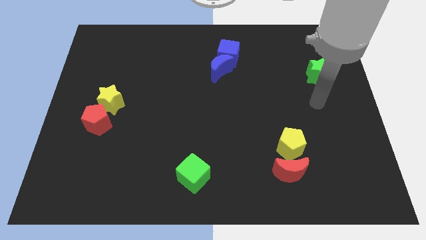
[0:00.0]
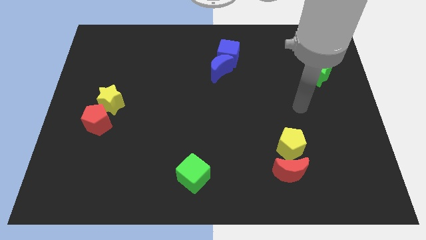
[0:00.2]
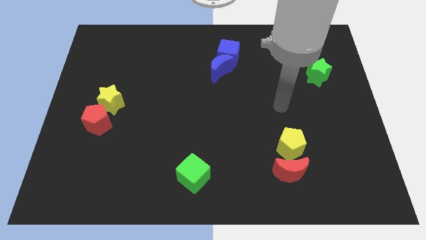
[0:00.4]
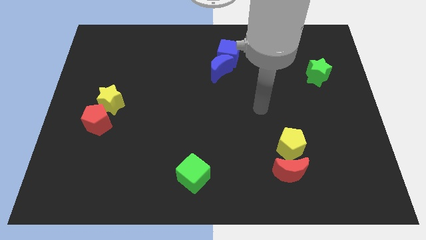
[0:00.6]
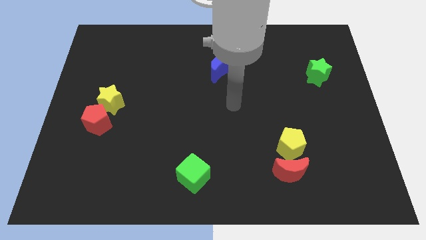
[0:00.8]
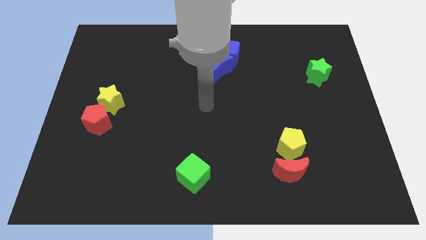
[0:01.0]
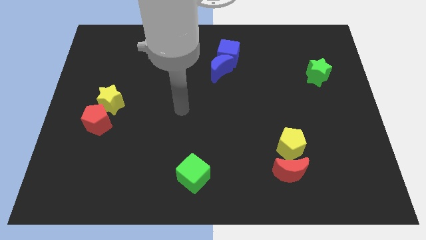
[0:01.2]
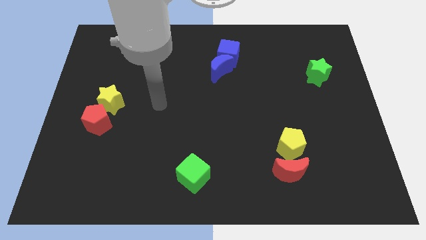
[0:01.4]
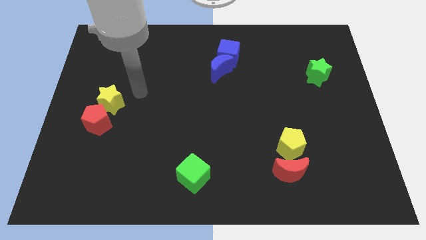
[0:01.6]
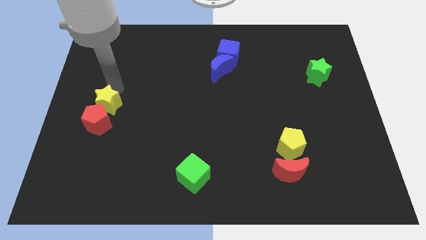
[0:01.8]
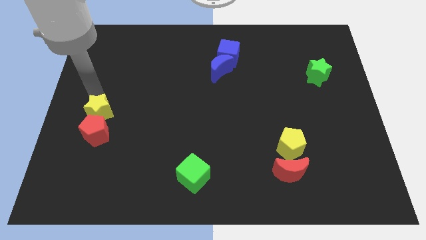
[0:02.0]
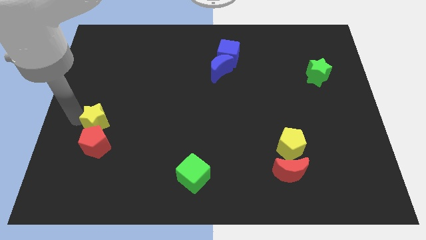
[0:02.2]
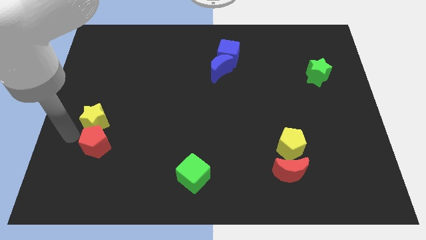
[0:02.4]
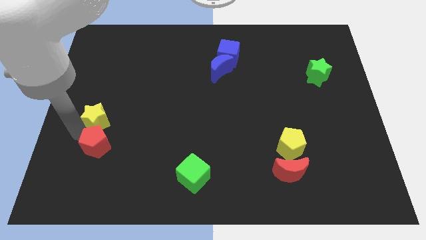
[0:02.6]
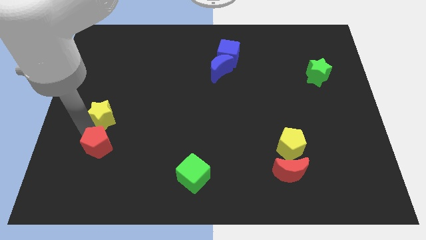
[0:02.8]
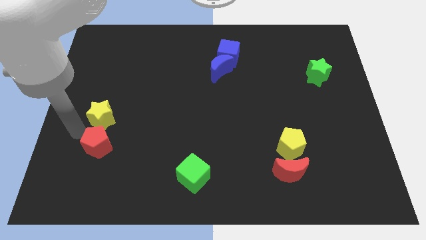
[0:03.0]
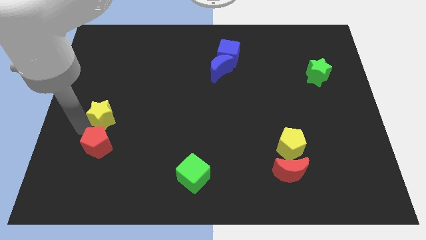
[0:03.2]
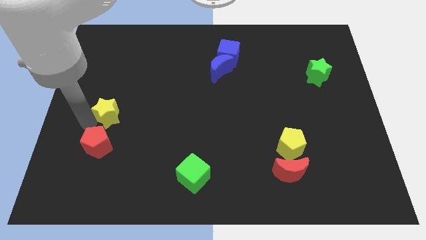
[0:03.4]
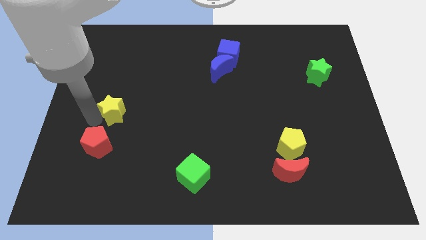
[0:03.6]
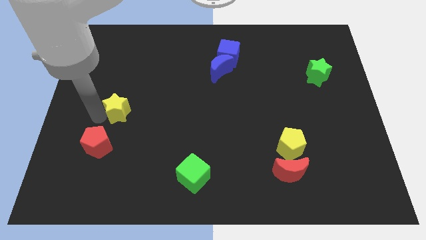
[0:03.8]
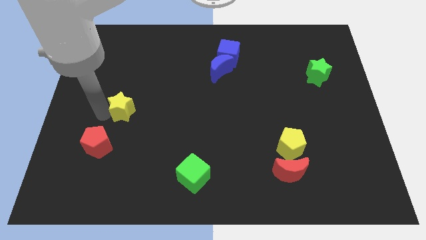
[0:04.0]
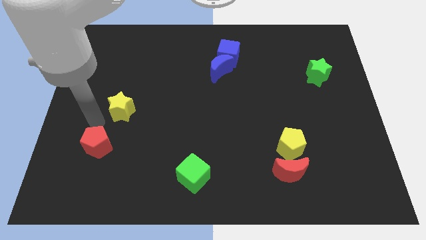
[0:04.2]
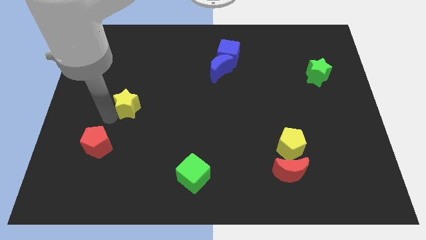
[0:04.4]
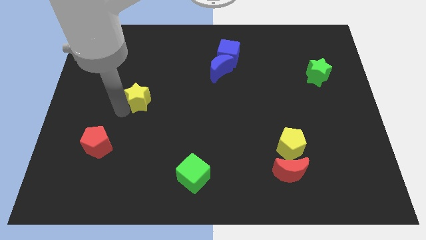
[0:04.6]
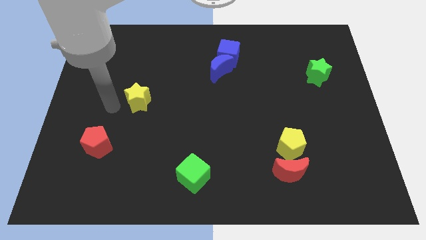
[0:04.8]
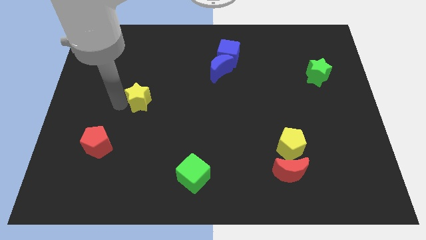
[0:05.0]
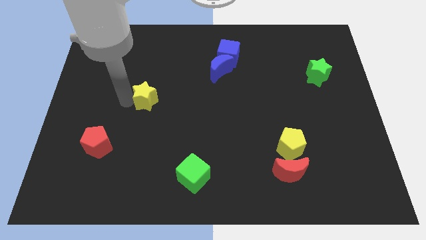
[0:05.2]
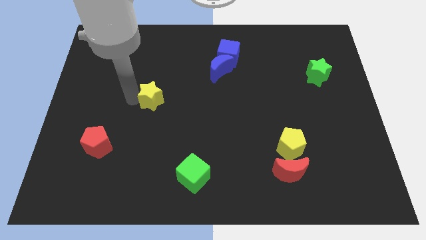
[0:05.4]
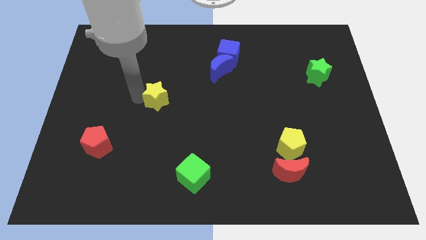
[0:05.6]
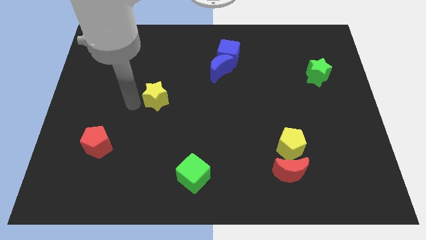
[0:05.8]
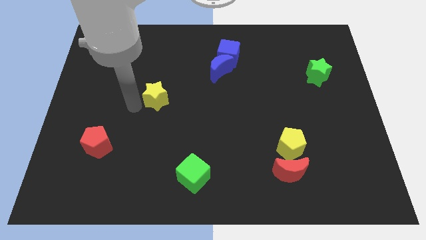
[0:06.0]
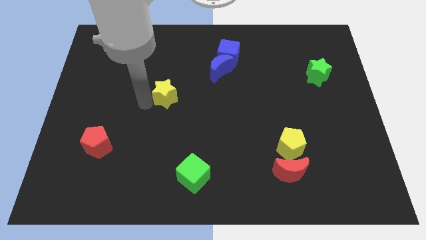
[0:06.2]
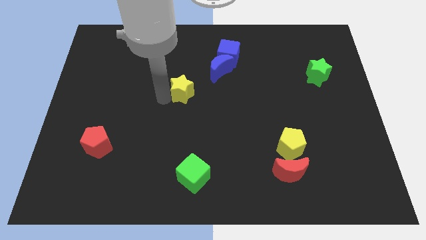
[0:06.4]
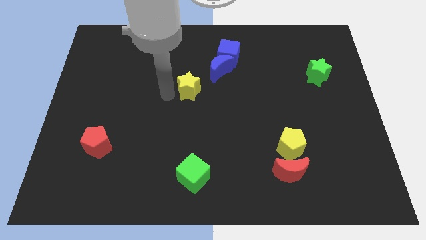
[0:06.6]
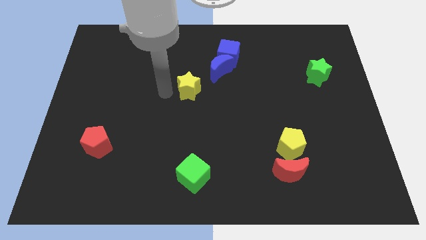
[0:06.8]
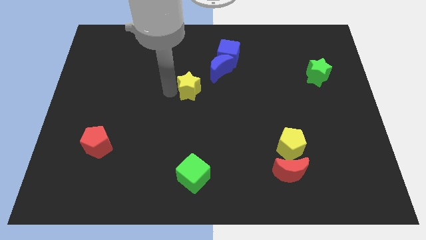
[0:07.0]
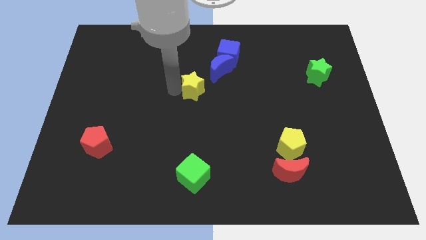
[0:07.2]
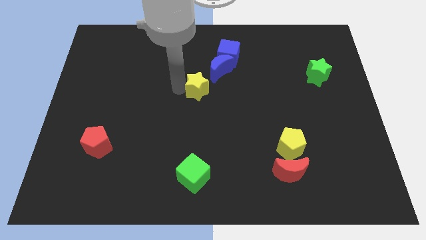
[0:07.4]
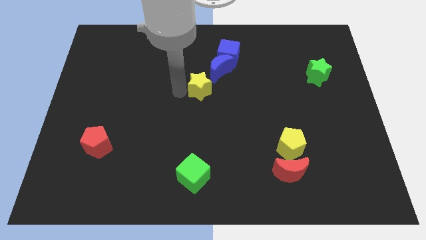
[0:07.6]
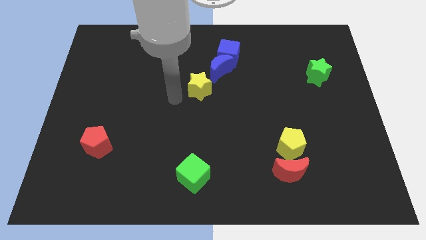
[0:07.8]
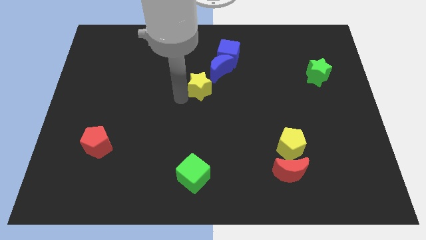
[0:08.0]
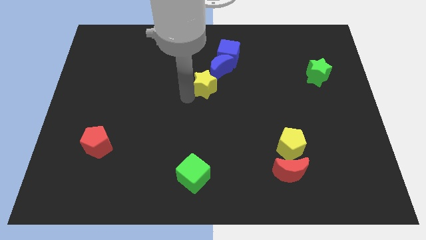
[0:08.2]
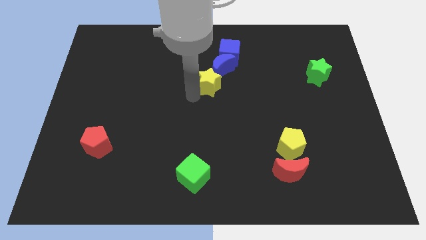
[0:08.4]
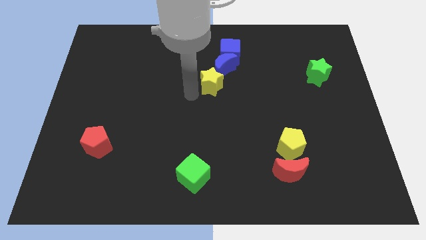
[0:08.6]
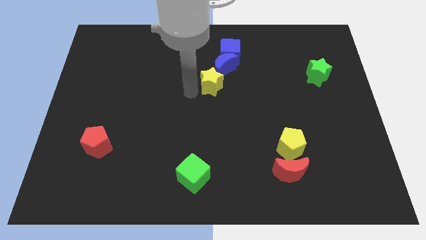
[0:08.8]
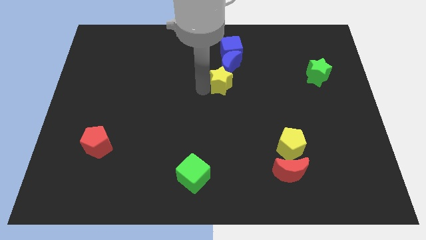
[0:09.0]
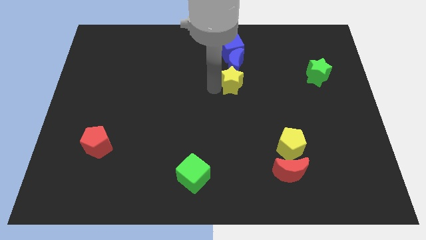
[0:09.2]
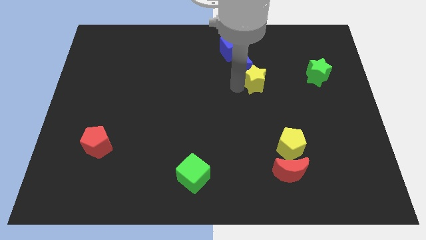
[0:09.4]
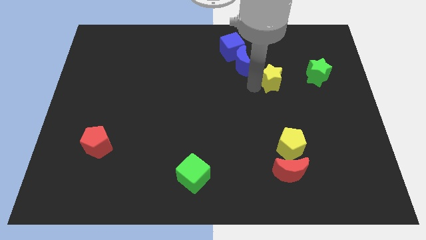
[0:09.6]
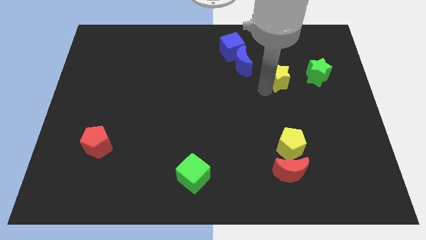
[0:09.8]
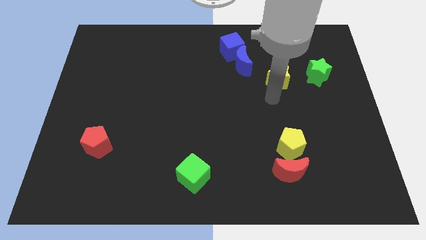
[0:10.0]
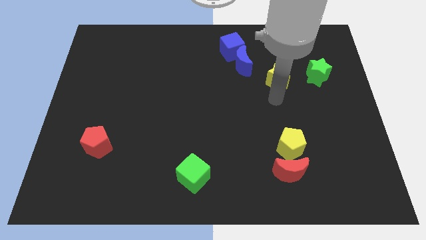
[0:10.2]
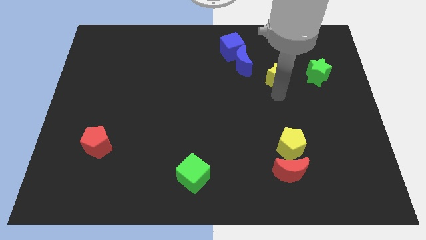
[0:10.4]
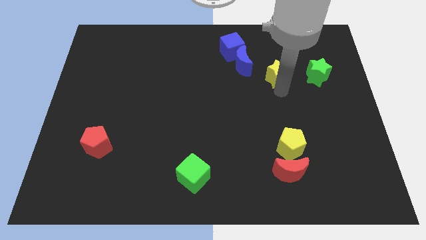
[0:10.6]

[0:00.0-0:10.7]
slide the yellow star right of the blue moon

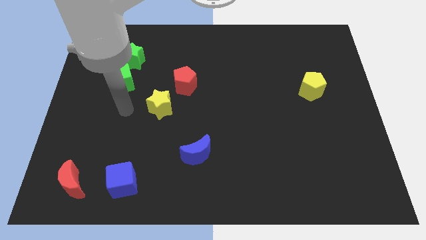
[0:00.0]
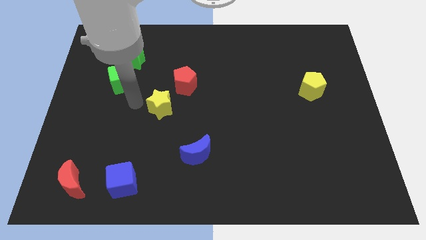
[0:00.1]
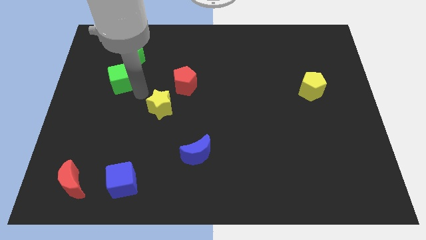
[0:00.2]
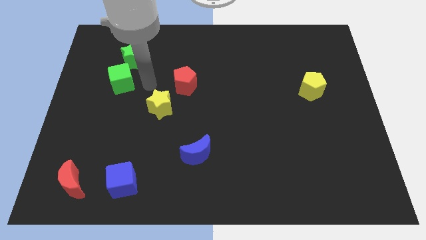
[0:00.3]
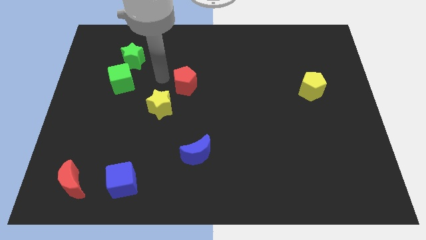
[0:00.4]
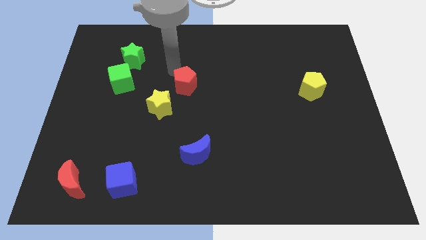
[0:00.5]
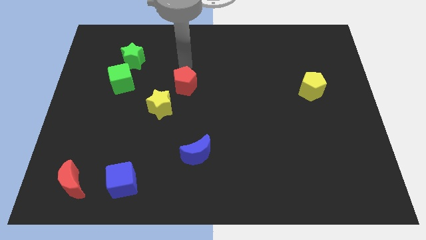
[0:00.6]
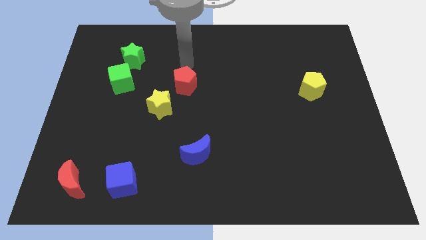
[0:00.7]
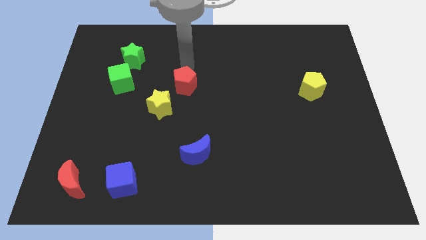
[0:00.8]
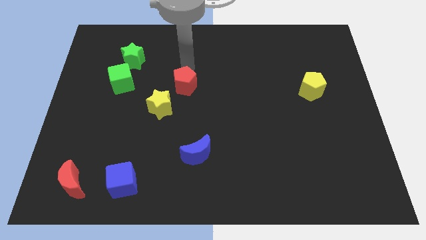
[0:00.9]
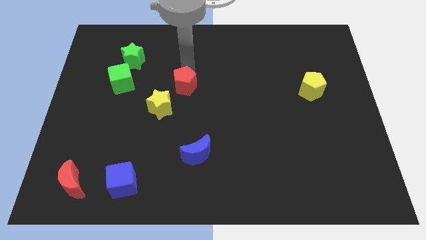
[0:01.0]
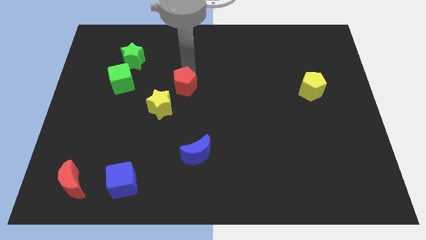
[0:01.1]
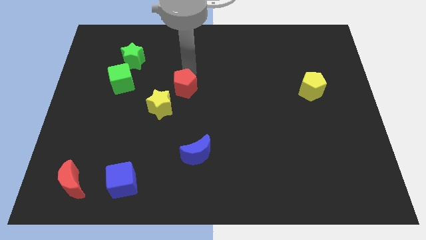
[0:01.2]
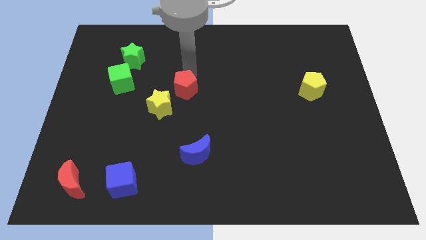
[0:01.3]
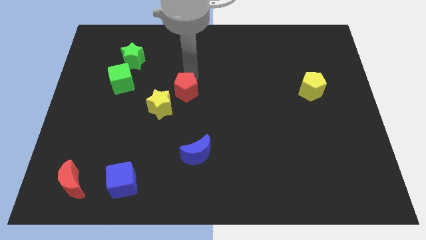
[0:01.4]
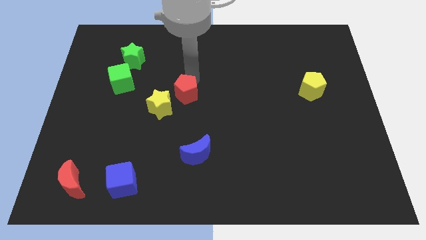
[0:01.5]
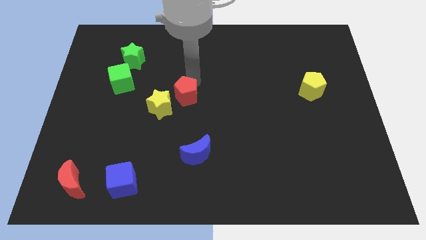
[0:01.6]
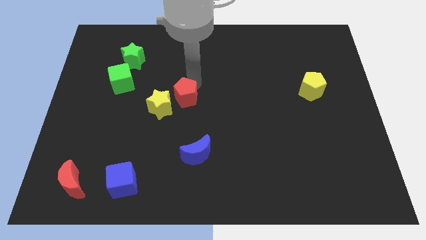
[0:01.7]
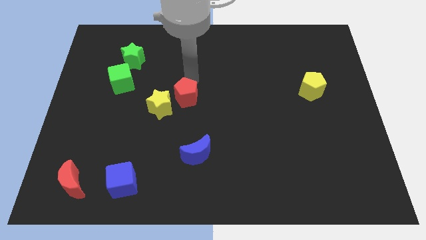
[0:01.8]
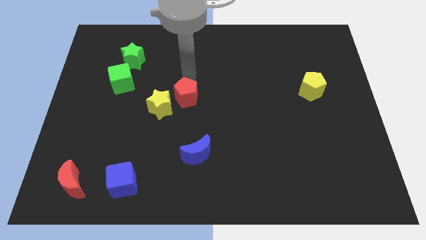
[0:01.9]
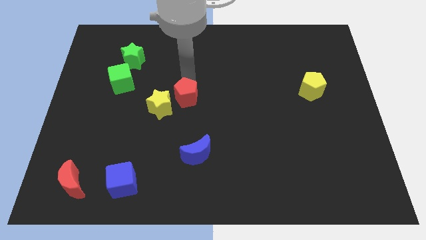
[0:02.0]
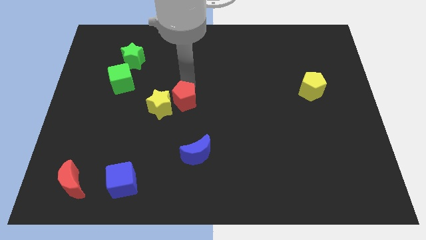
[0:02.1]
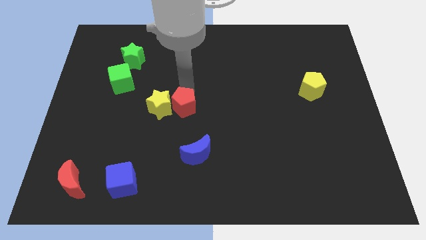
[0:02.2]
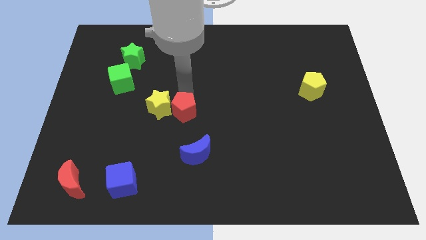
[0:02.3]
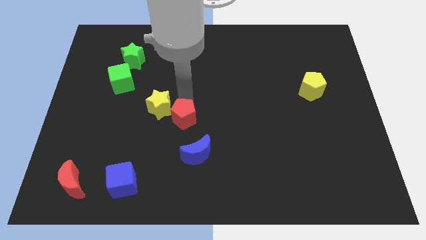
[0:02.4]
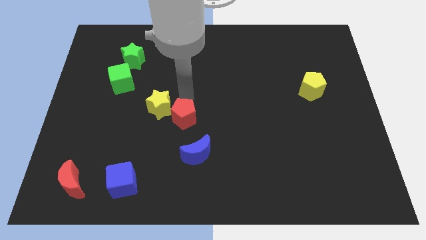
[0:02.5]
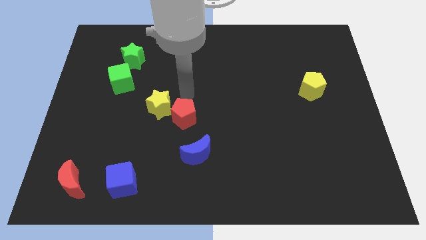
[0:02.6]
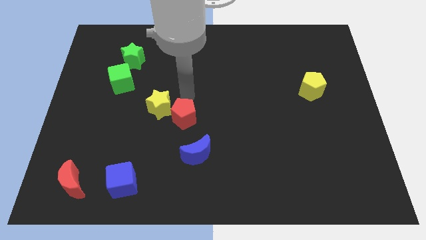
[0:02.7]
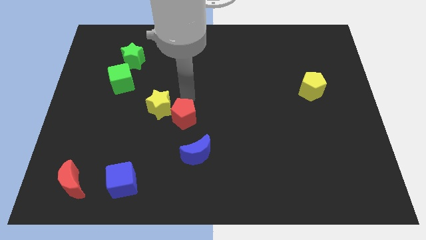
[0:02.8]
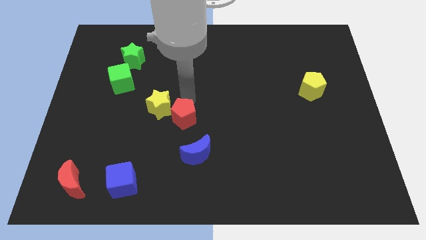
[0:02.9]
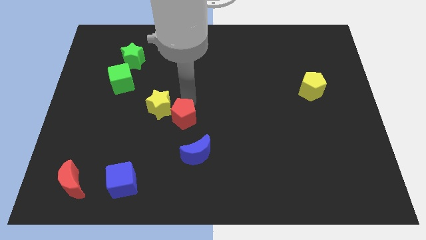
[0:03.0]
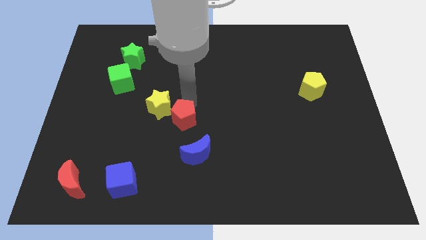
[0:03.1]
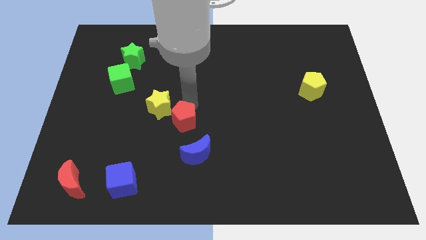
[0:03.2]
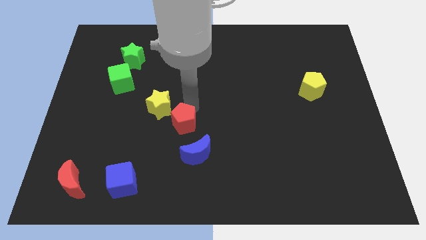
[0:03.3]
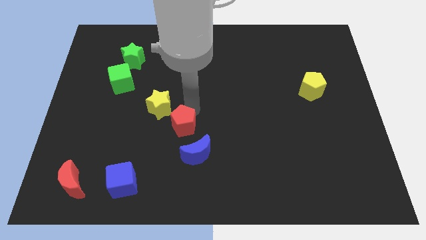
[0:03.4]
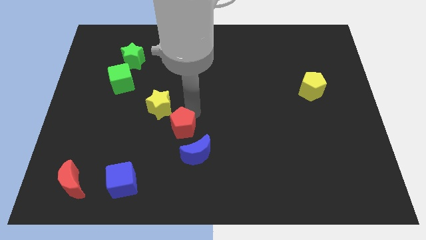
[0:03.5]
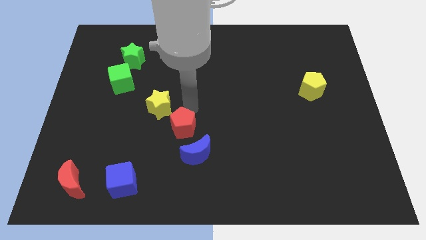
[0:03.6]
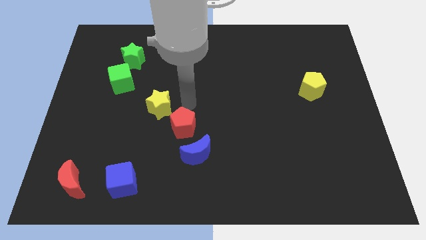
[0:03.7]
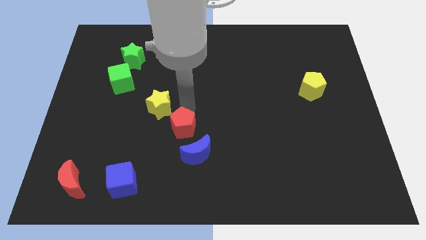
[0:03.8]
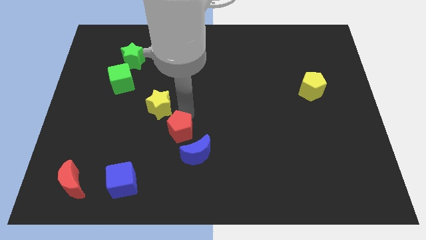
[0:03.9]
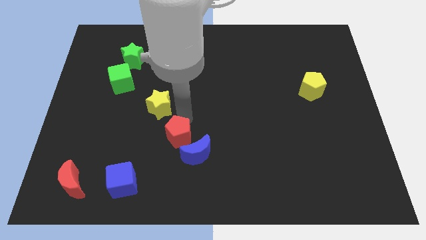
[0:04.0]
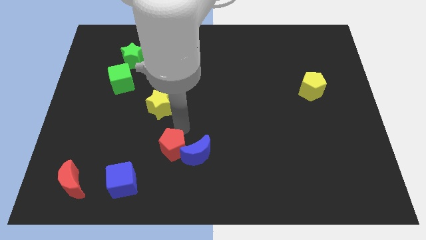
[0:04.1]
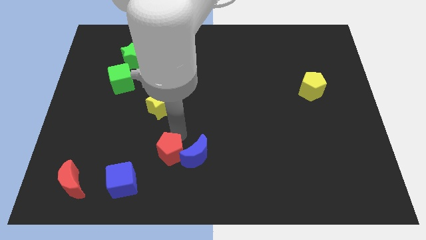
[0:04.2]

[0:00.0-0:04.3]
put the red pentagon to the bottom left of the blue moon
